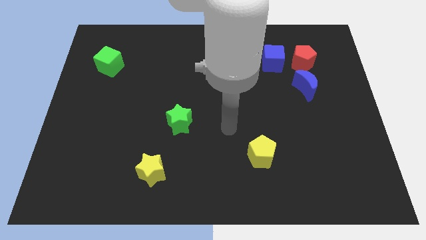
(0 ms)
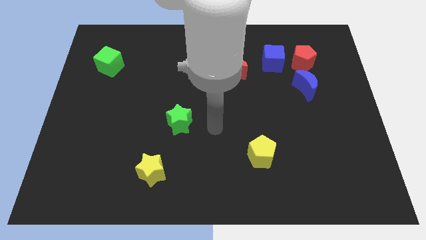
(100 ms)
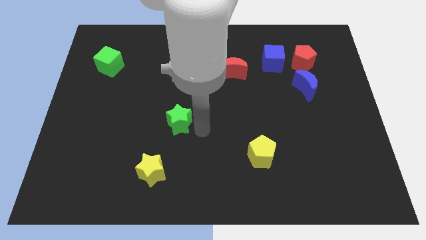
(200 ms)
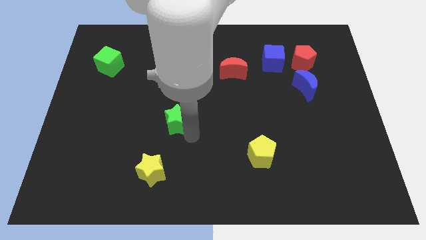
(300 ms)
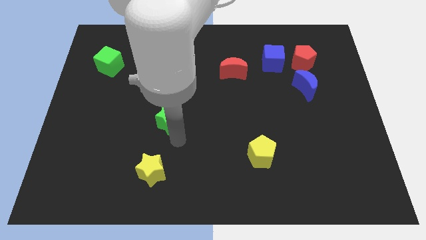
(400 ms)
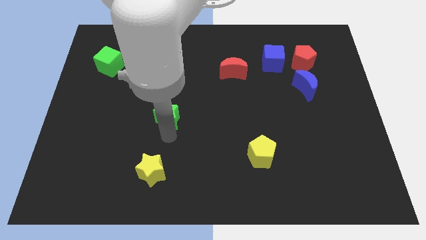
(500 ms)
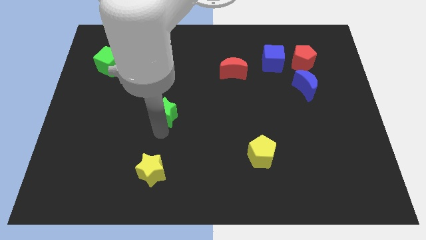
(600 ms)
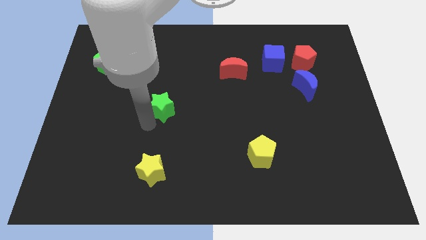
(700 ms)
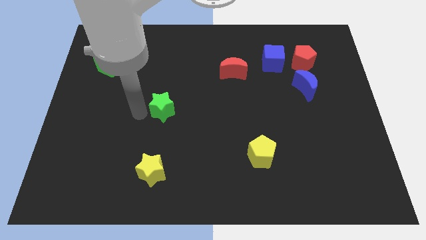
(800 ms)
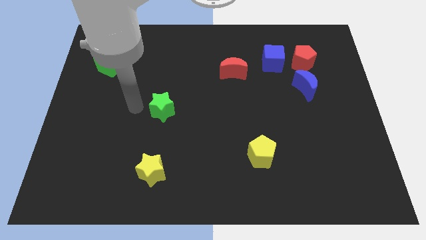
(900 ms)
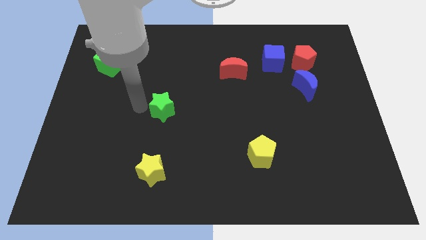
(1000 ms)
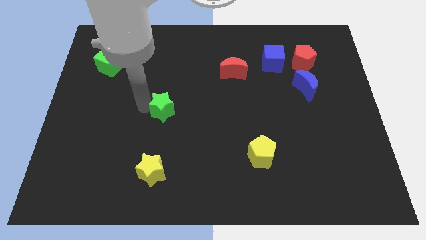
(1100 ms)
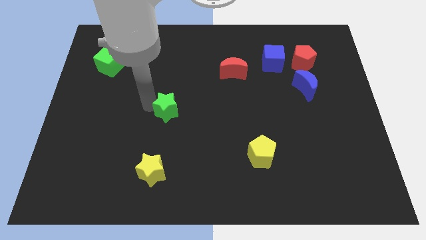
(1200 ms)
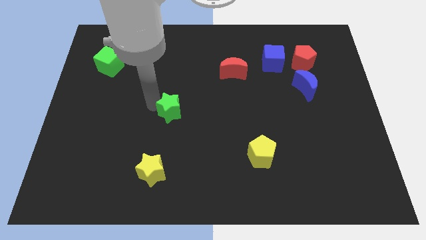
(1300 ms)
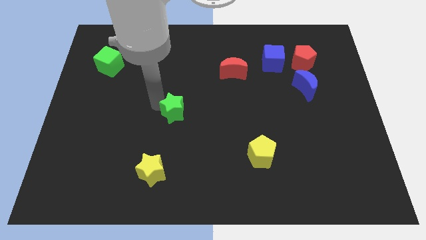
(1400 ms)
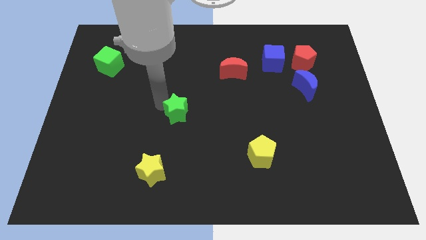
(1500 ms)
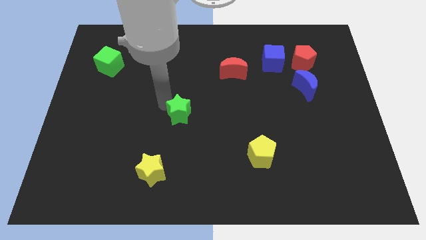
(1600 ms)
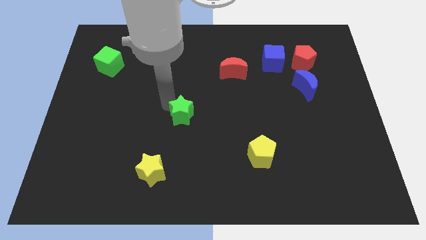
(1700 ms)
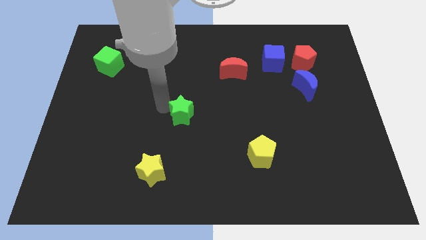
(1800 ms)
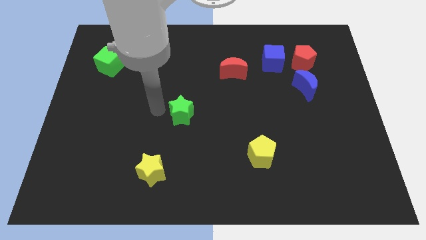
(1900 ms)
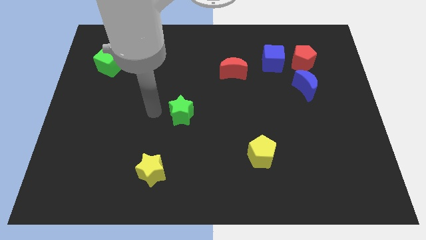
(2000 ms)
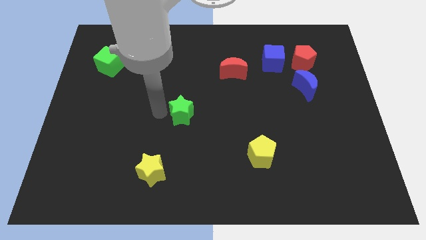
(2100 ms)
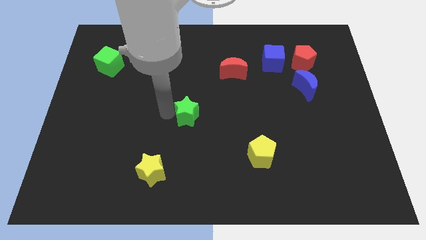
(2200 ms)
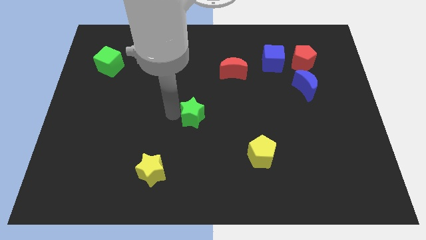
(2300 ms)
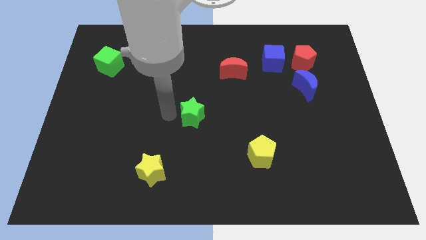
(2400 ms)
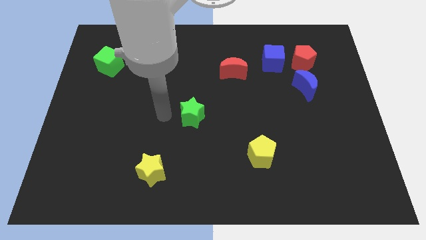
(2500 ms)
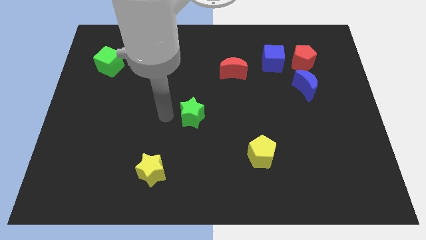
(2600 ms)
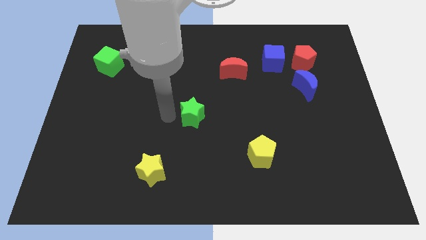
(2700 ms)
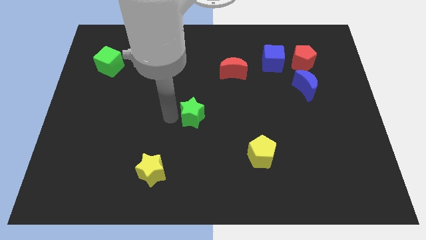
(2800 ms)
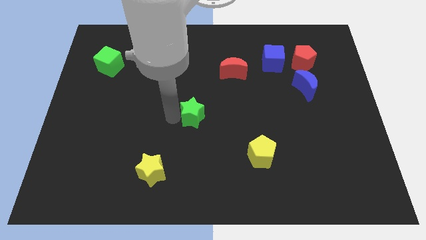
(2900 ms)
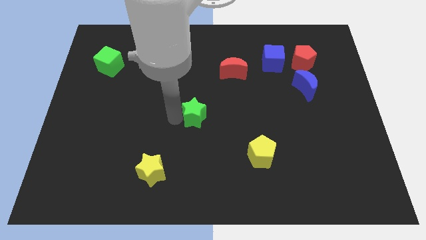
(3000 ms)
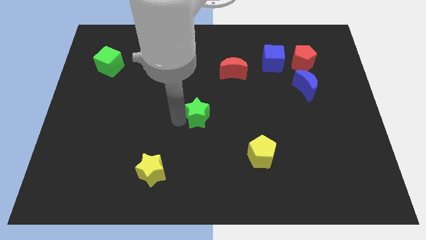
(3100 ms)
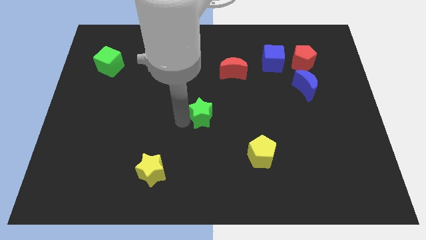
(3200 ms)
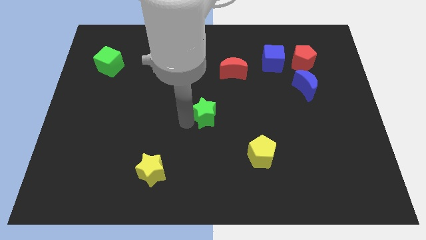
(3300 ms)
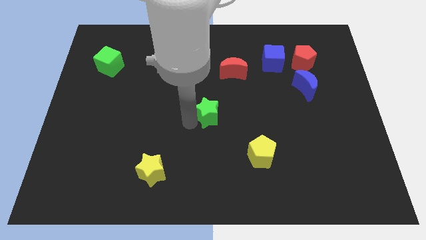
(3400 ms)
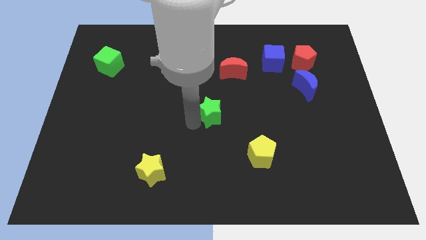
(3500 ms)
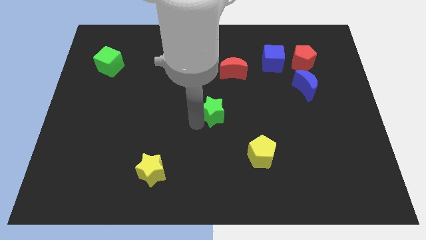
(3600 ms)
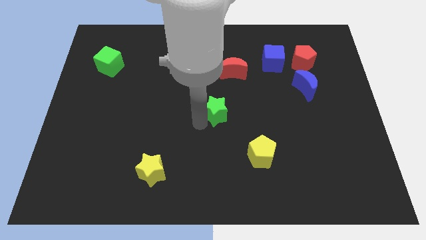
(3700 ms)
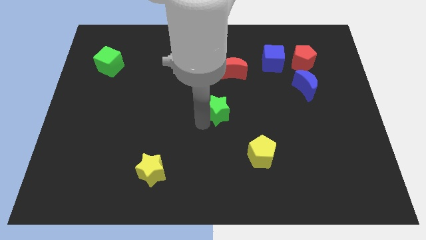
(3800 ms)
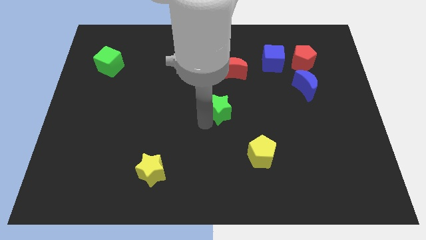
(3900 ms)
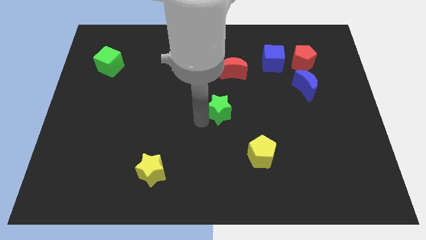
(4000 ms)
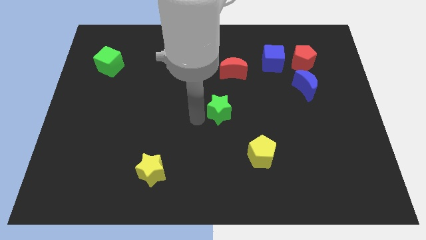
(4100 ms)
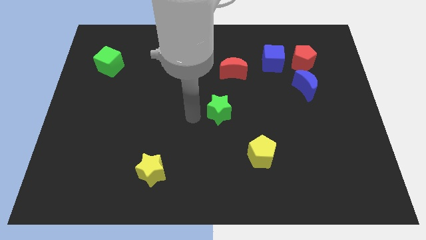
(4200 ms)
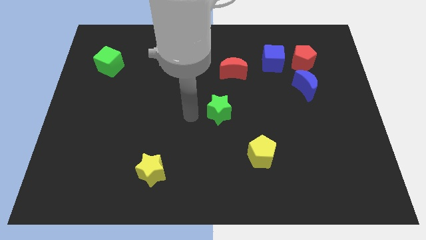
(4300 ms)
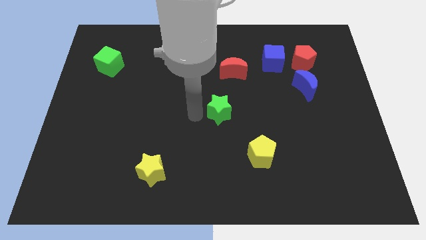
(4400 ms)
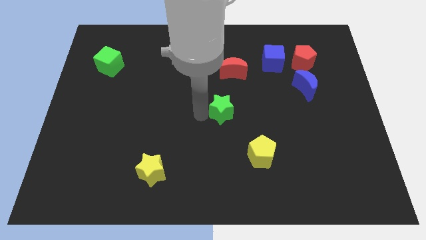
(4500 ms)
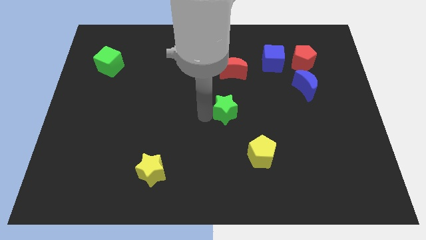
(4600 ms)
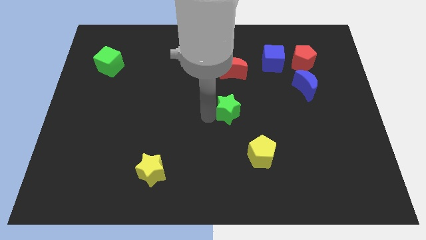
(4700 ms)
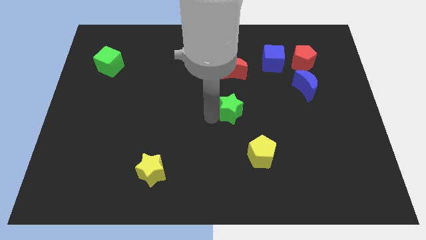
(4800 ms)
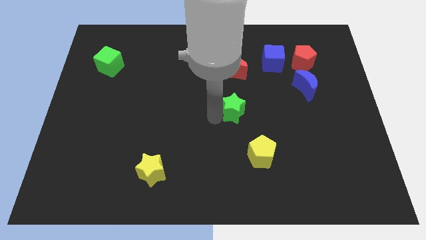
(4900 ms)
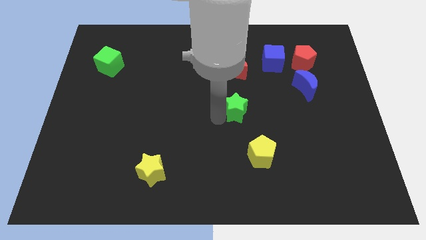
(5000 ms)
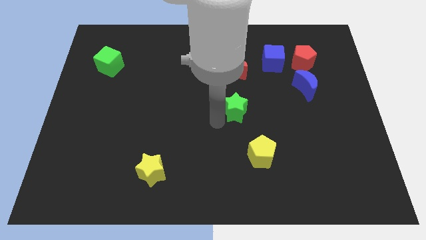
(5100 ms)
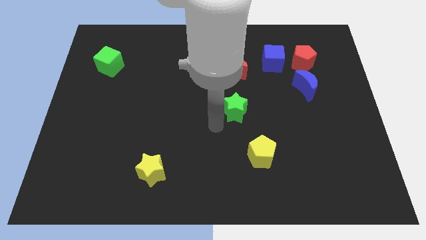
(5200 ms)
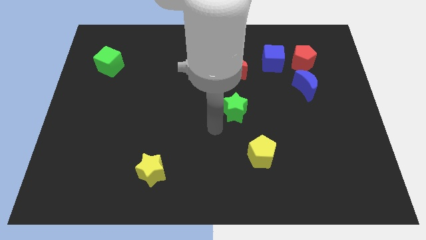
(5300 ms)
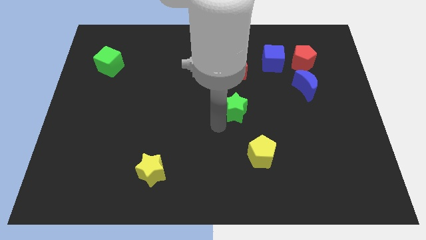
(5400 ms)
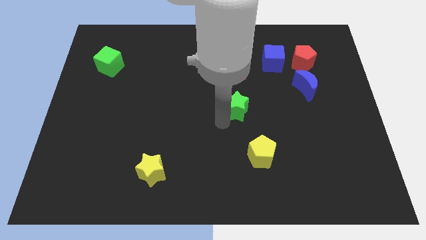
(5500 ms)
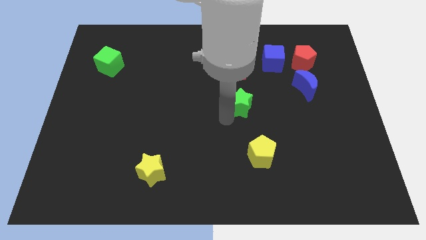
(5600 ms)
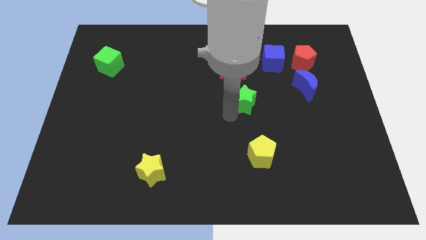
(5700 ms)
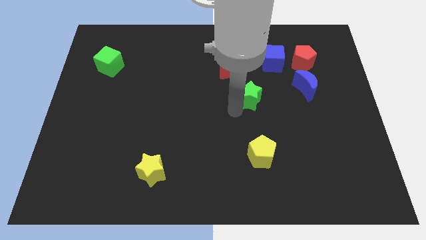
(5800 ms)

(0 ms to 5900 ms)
push the green star left of the blue moon

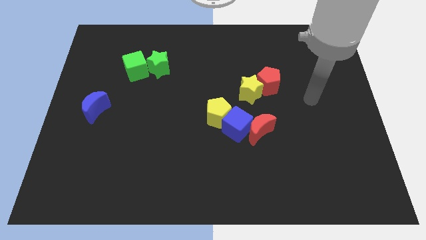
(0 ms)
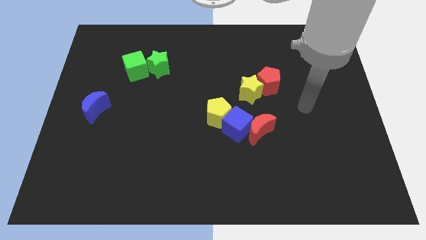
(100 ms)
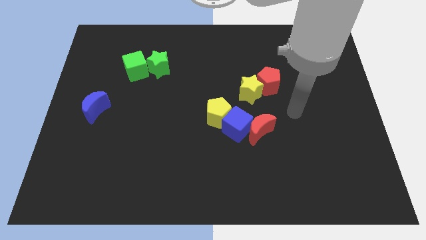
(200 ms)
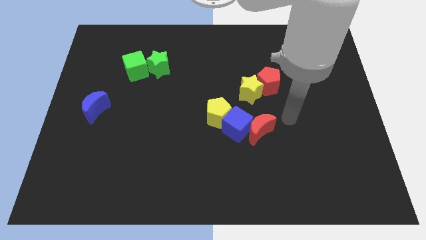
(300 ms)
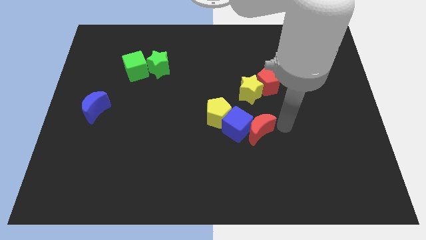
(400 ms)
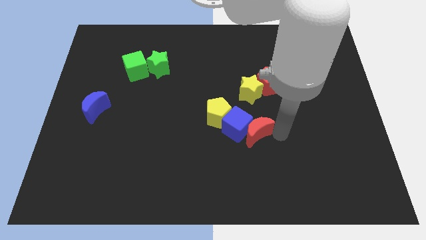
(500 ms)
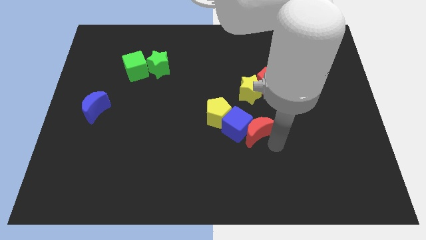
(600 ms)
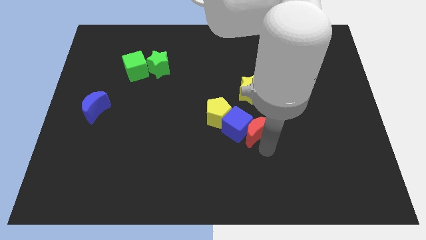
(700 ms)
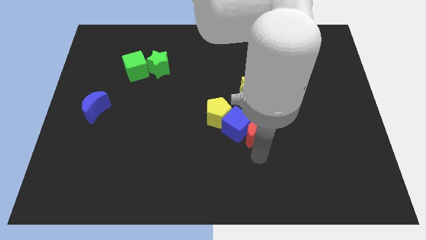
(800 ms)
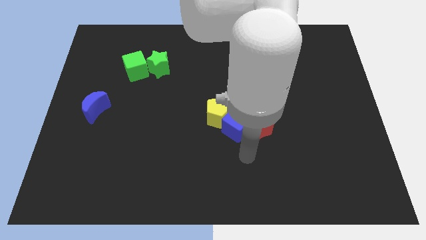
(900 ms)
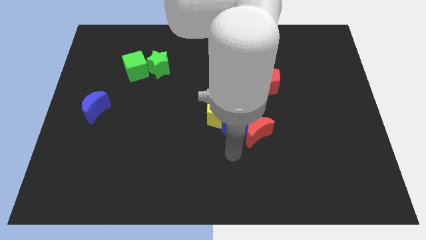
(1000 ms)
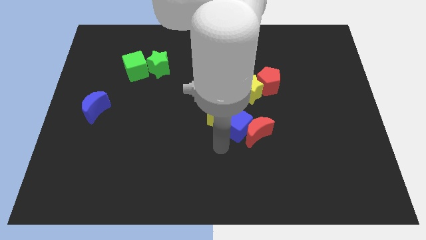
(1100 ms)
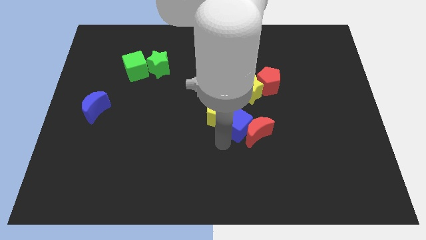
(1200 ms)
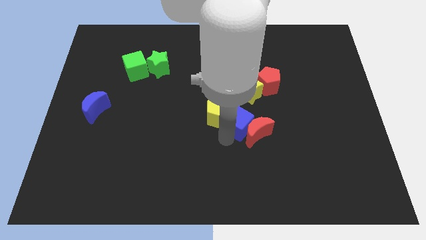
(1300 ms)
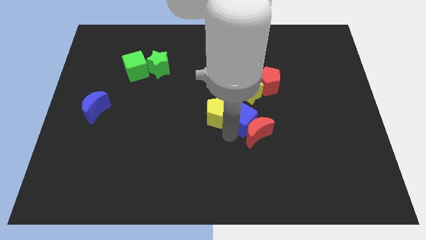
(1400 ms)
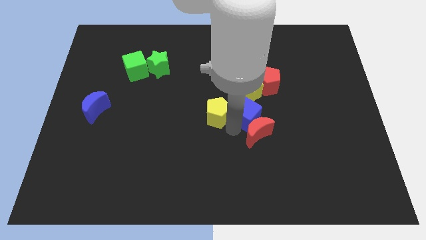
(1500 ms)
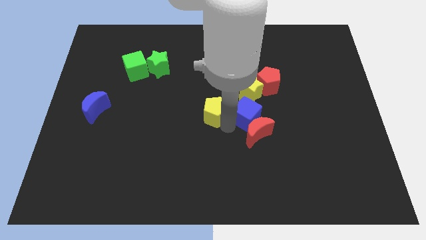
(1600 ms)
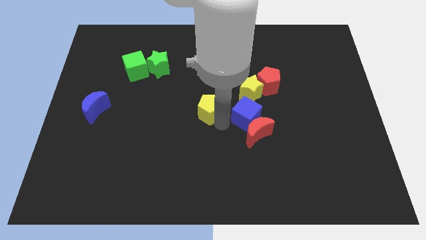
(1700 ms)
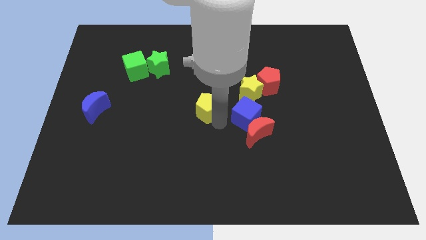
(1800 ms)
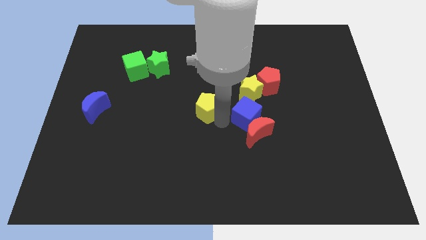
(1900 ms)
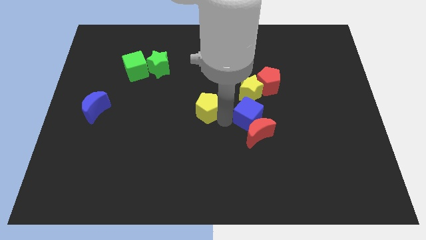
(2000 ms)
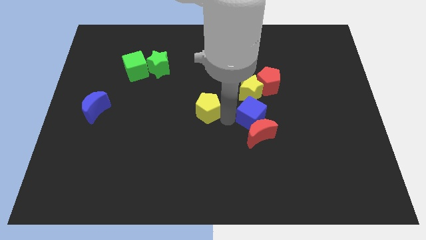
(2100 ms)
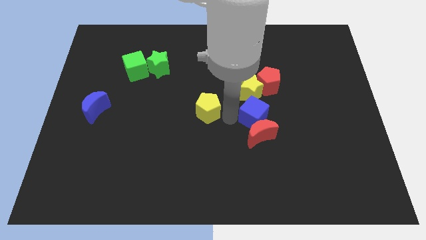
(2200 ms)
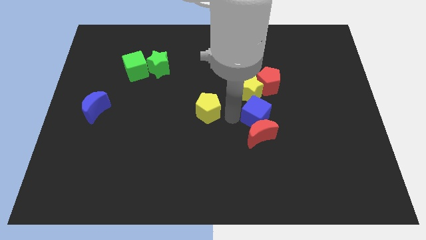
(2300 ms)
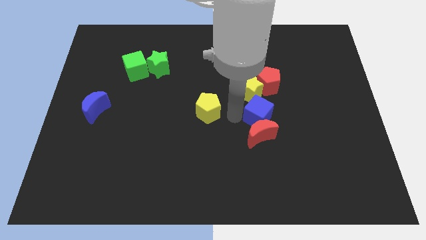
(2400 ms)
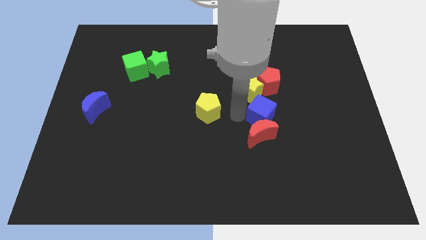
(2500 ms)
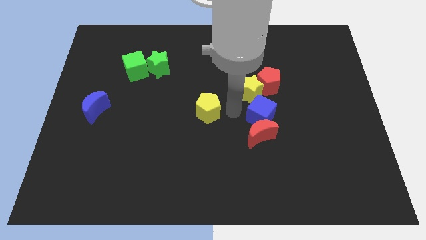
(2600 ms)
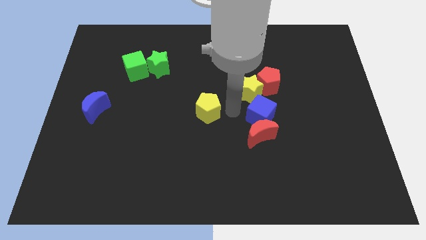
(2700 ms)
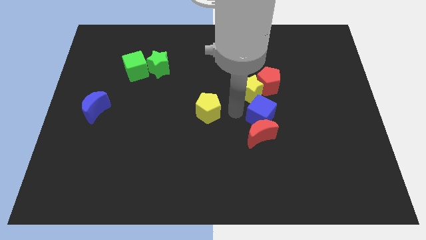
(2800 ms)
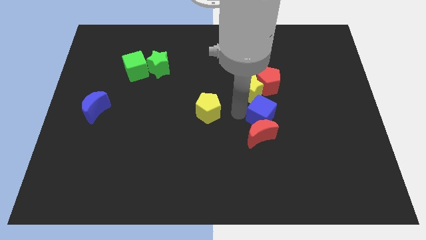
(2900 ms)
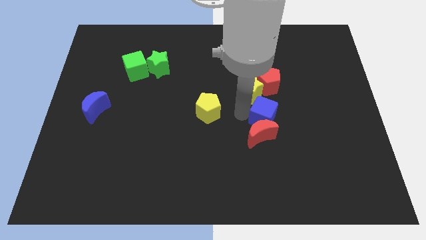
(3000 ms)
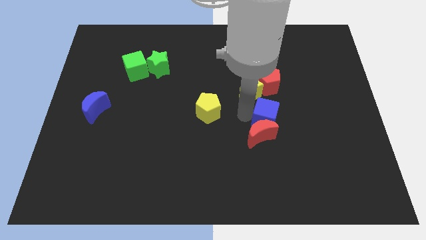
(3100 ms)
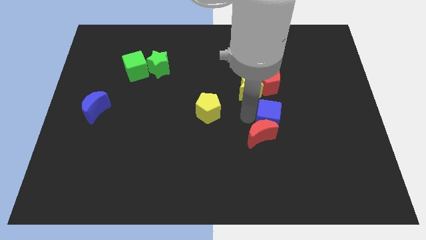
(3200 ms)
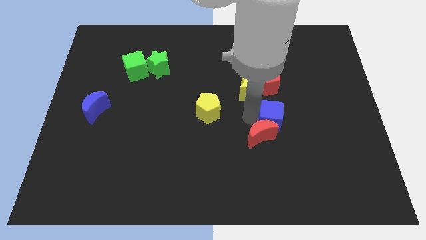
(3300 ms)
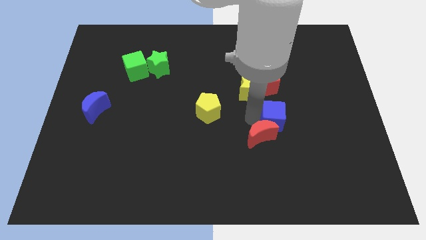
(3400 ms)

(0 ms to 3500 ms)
move the blue cube to the right side of the red moon
